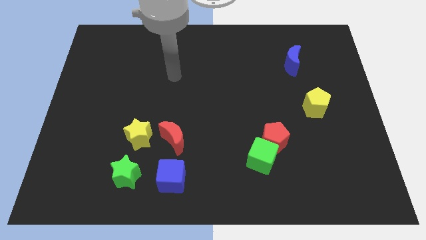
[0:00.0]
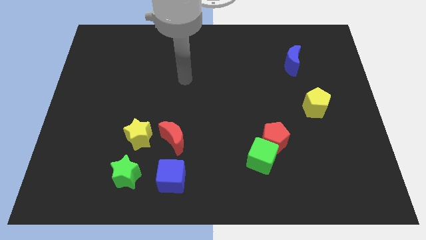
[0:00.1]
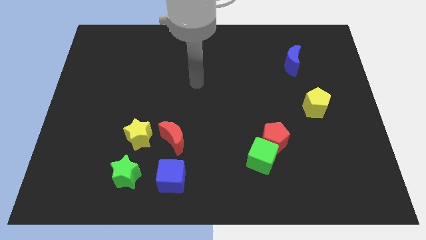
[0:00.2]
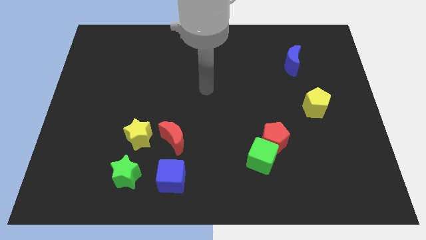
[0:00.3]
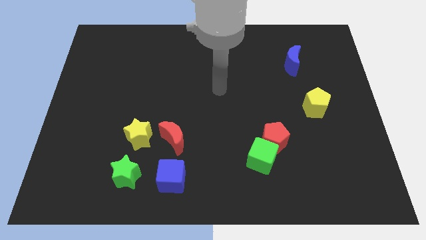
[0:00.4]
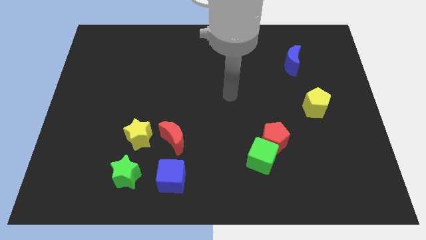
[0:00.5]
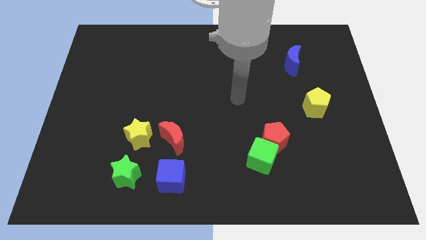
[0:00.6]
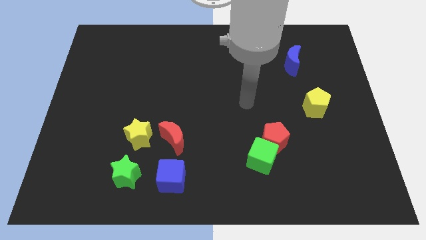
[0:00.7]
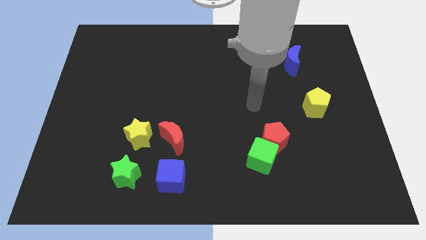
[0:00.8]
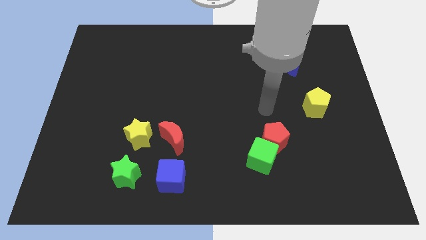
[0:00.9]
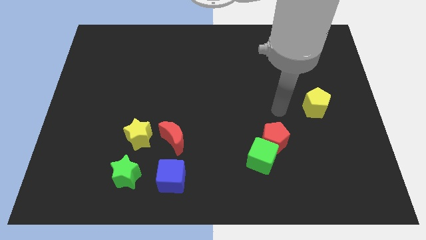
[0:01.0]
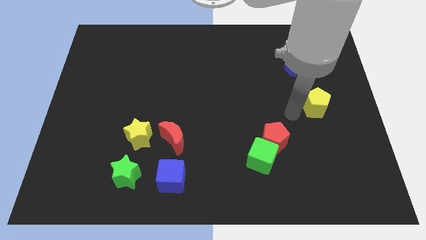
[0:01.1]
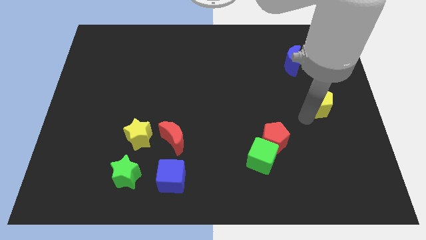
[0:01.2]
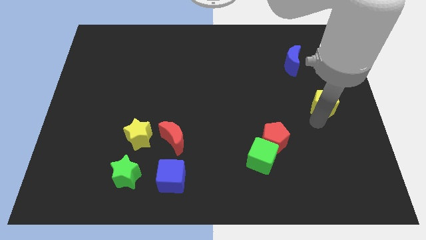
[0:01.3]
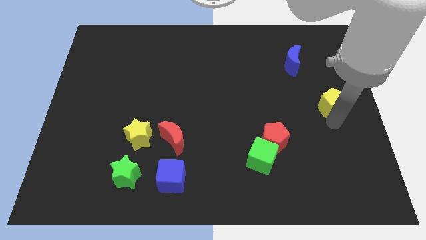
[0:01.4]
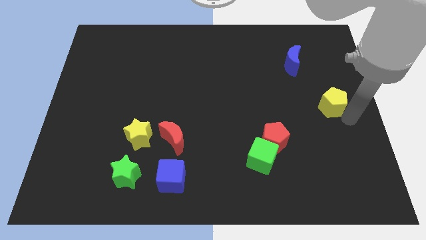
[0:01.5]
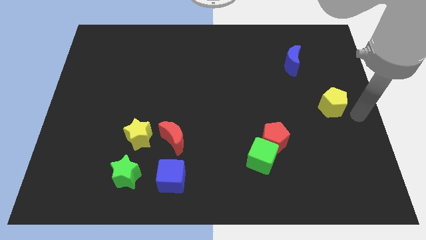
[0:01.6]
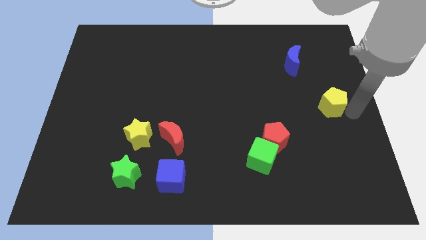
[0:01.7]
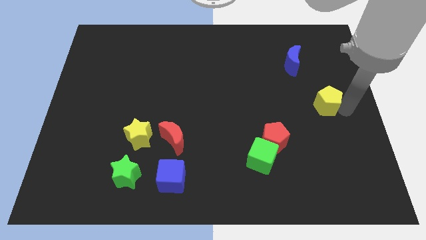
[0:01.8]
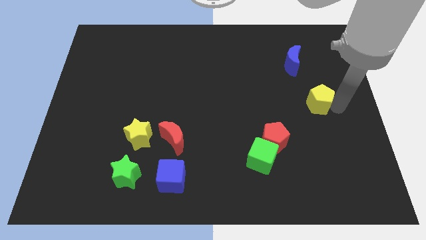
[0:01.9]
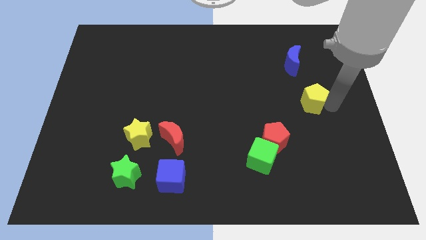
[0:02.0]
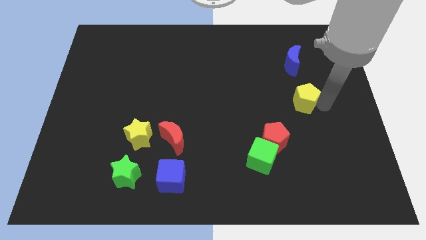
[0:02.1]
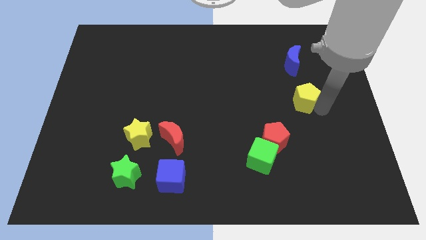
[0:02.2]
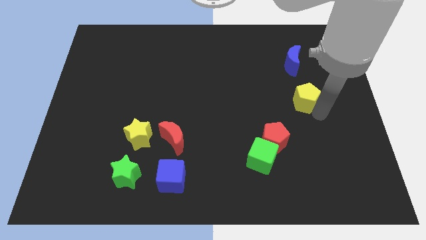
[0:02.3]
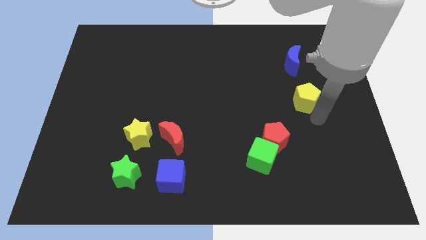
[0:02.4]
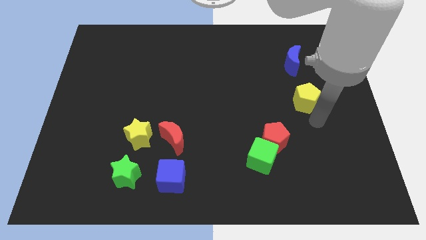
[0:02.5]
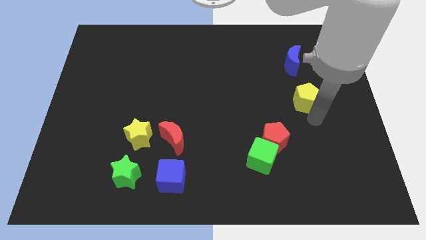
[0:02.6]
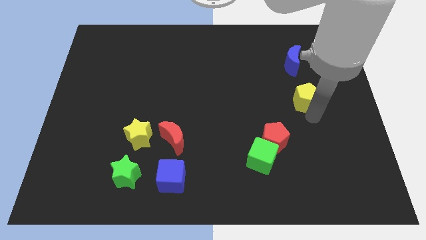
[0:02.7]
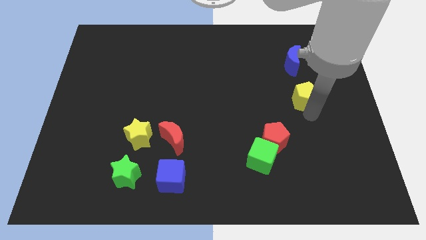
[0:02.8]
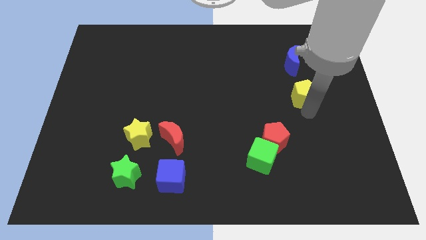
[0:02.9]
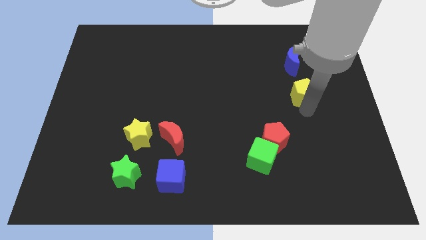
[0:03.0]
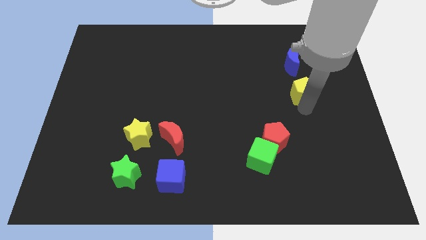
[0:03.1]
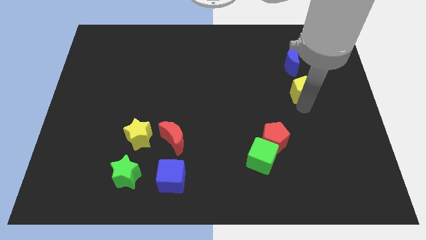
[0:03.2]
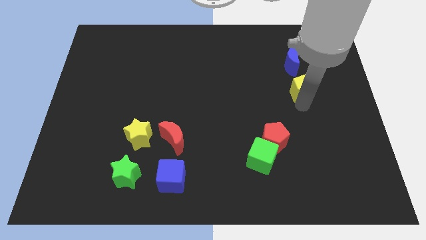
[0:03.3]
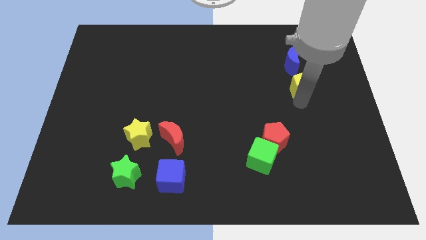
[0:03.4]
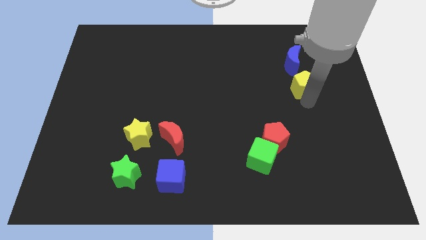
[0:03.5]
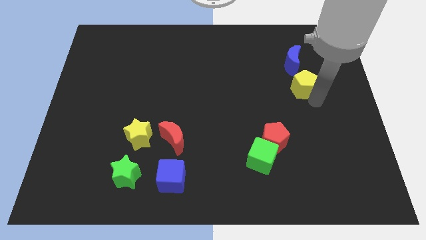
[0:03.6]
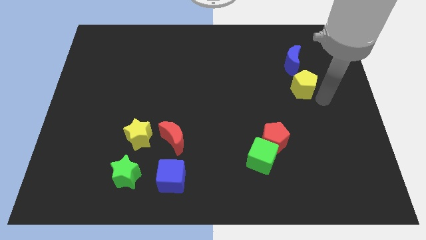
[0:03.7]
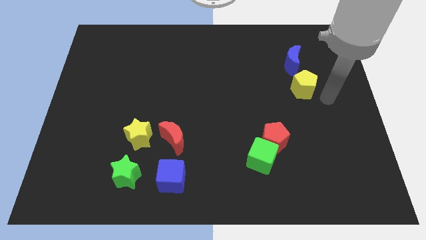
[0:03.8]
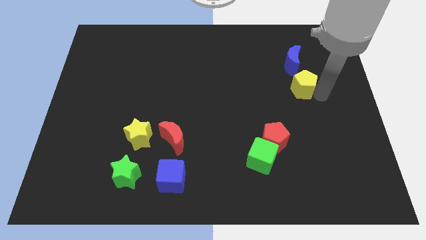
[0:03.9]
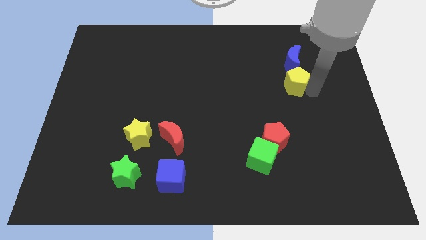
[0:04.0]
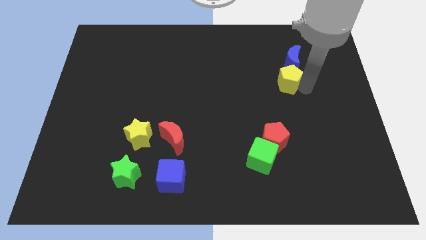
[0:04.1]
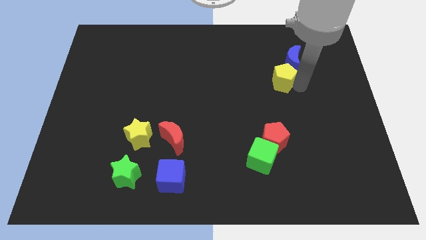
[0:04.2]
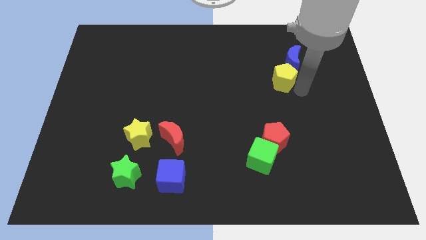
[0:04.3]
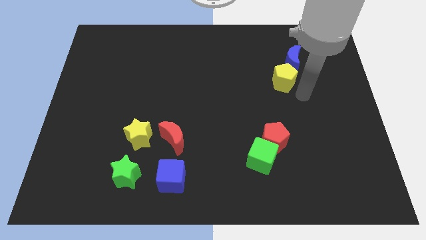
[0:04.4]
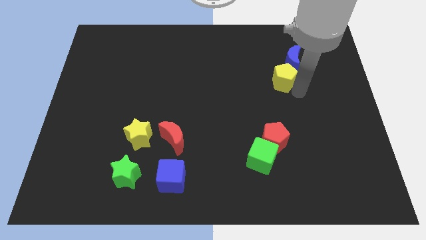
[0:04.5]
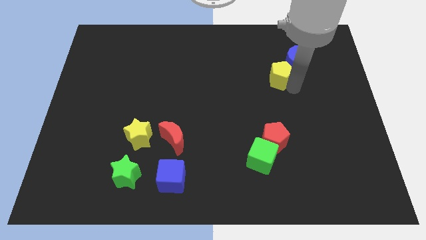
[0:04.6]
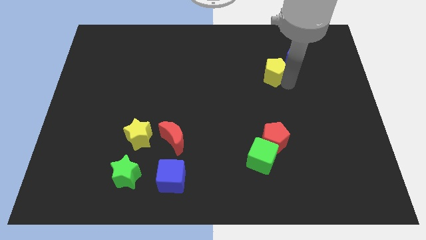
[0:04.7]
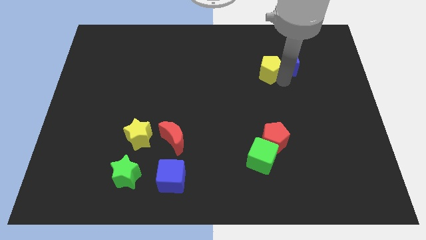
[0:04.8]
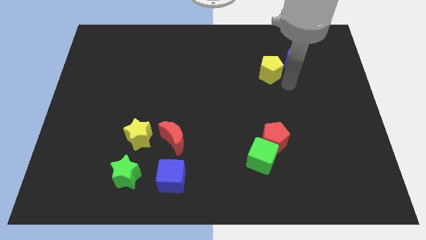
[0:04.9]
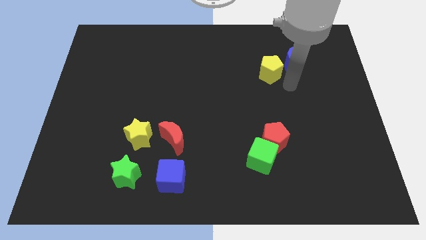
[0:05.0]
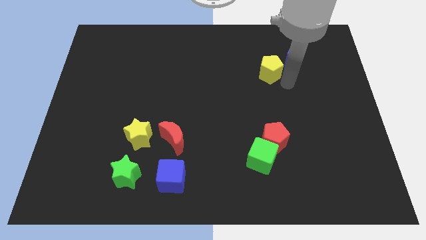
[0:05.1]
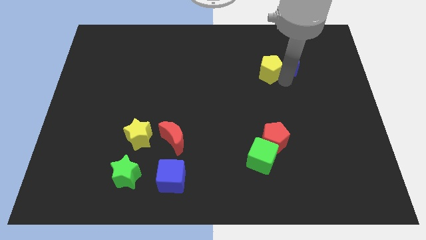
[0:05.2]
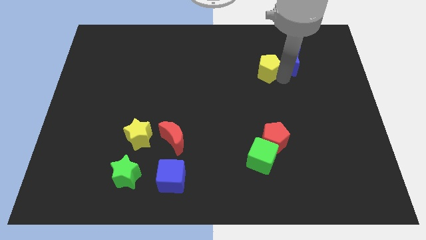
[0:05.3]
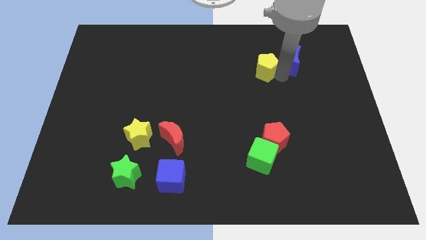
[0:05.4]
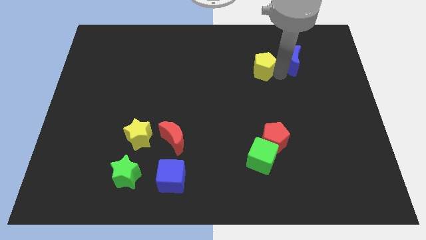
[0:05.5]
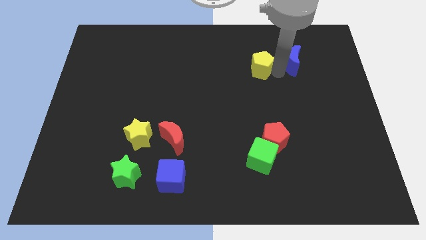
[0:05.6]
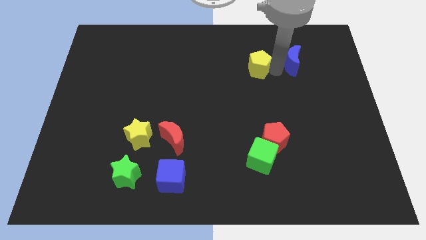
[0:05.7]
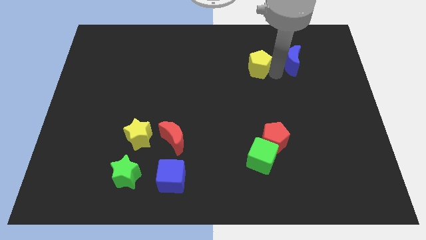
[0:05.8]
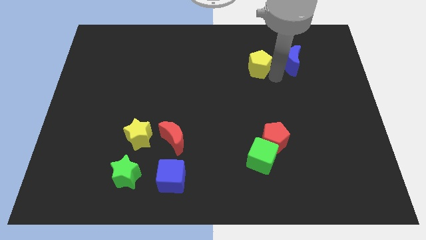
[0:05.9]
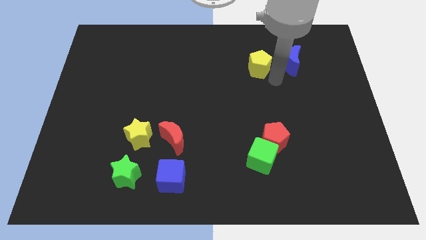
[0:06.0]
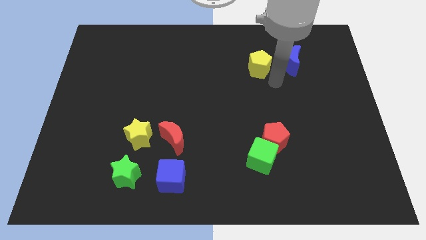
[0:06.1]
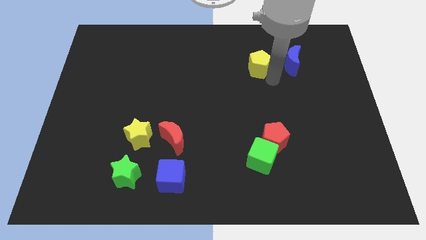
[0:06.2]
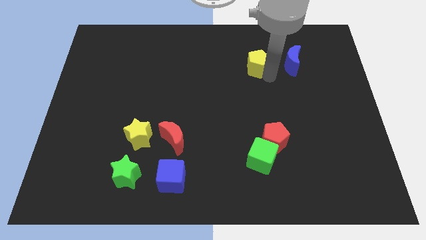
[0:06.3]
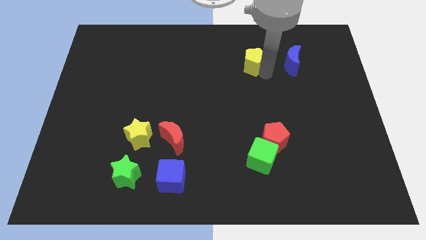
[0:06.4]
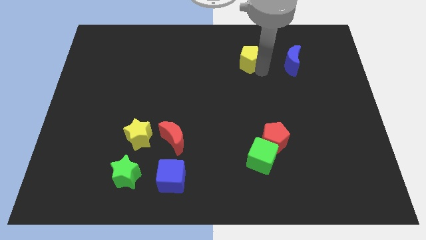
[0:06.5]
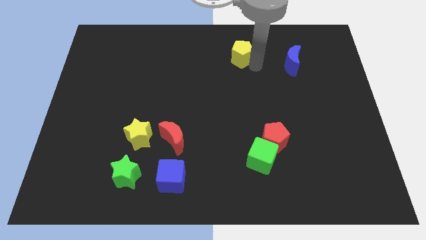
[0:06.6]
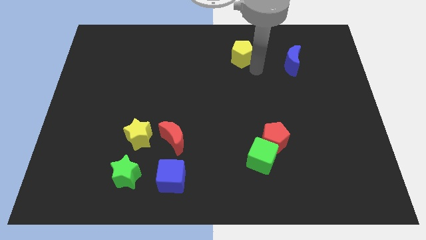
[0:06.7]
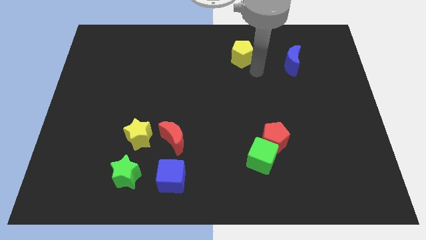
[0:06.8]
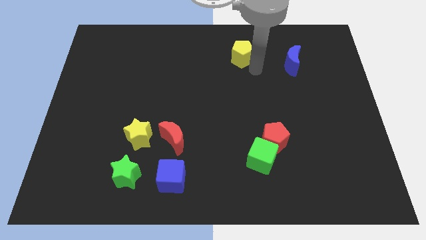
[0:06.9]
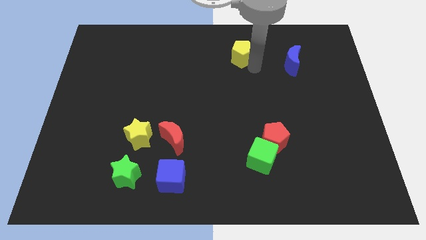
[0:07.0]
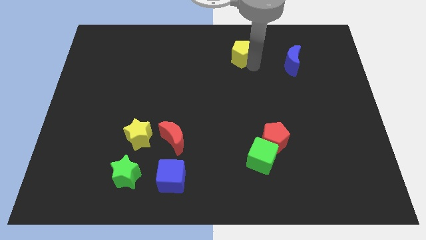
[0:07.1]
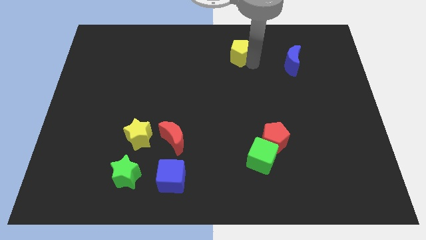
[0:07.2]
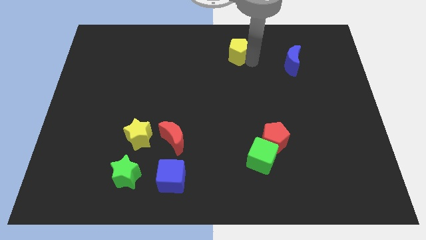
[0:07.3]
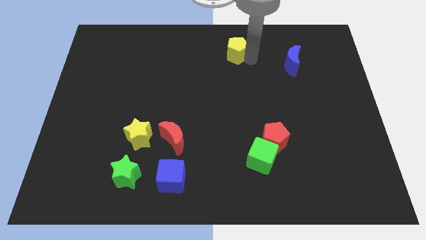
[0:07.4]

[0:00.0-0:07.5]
push the yellow pentagon to the towards your base
